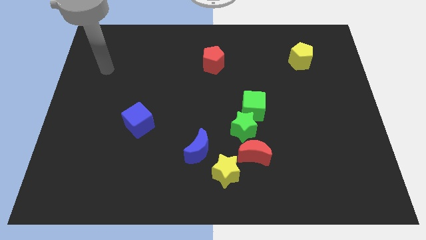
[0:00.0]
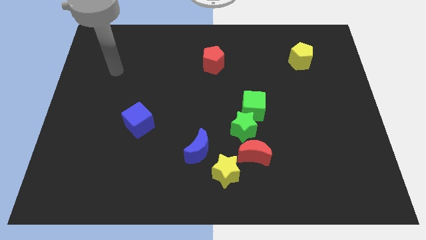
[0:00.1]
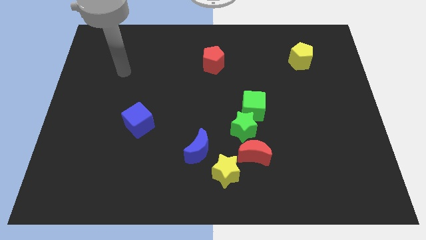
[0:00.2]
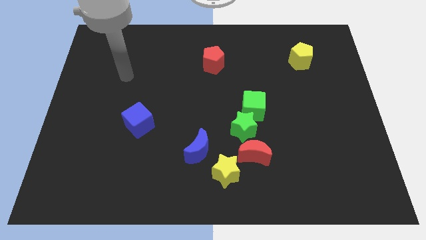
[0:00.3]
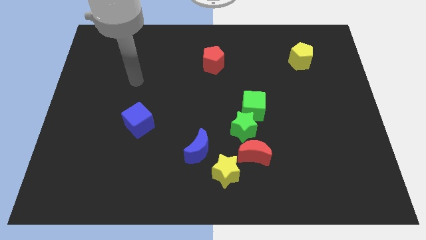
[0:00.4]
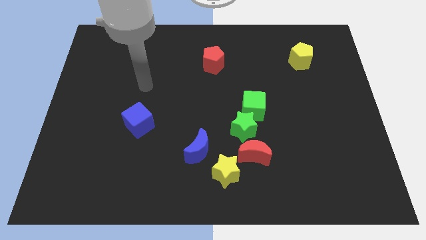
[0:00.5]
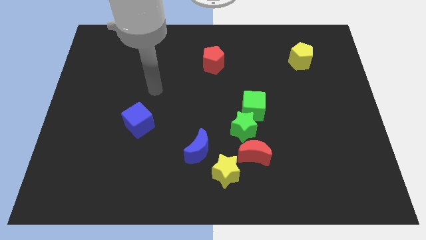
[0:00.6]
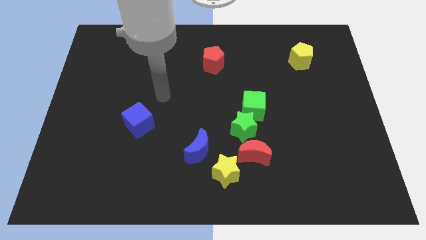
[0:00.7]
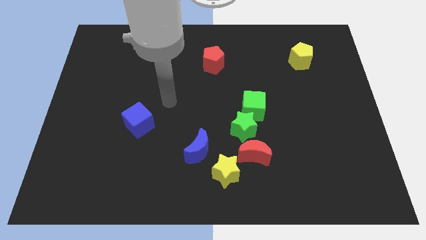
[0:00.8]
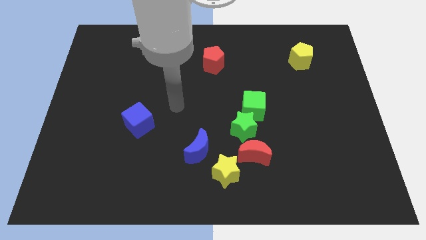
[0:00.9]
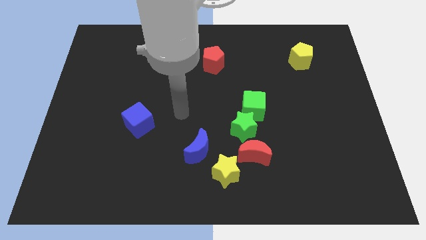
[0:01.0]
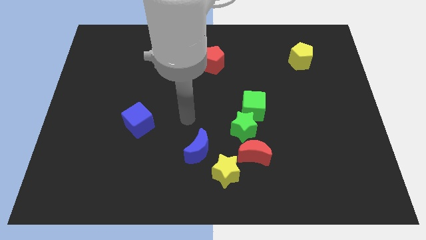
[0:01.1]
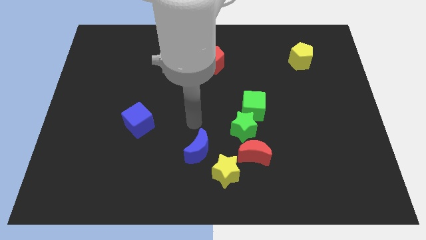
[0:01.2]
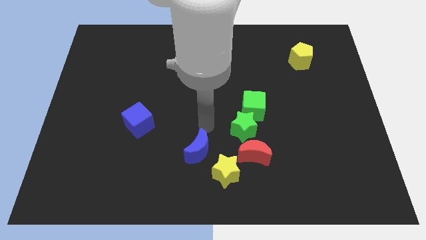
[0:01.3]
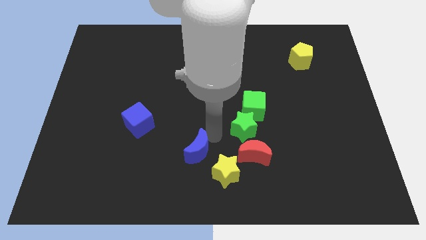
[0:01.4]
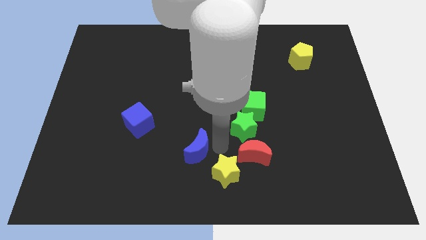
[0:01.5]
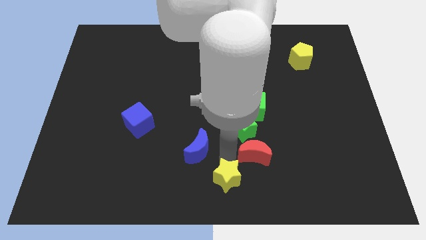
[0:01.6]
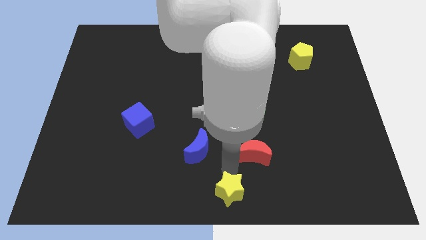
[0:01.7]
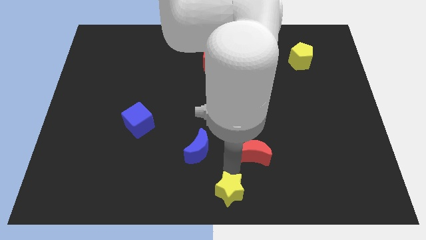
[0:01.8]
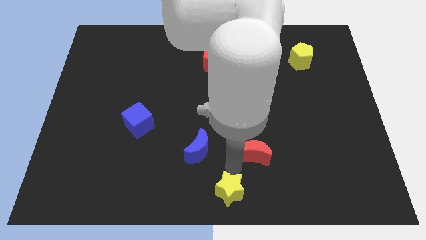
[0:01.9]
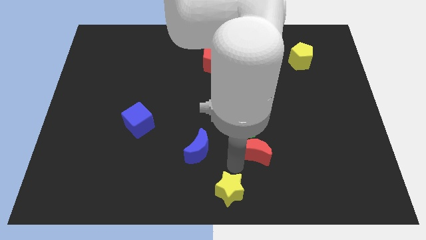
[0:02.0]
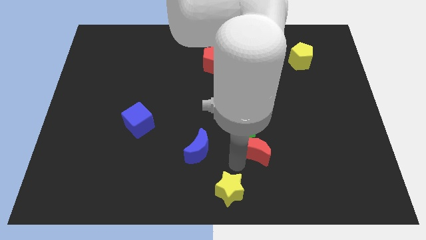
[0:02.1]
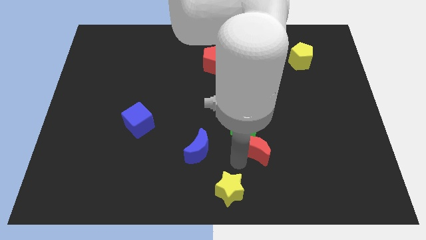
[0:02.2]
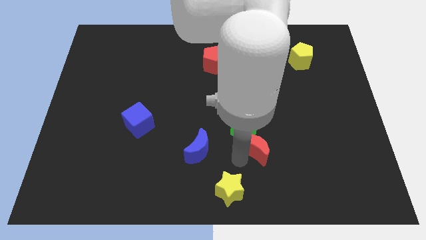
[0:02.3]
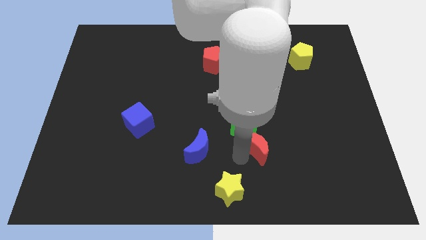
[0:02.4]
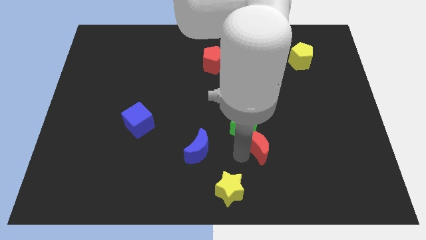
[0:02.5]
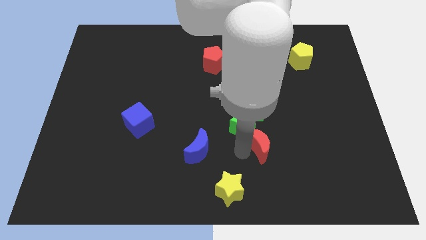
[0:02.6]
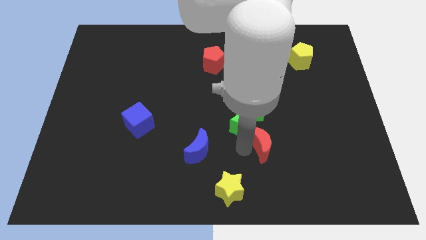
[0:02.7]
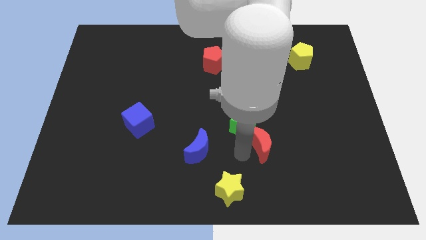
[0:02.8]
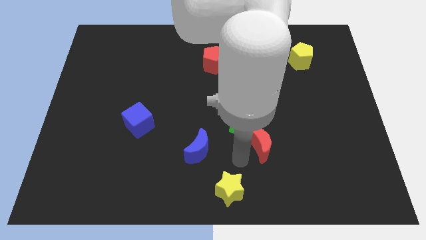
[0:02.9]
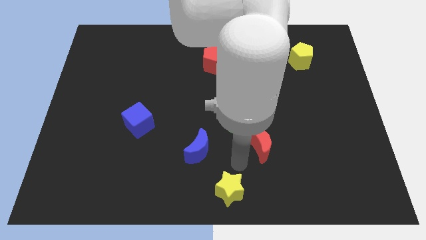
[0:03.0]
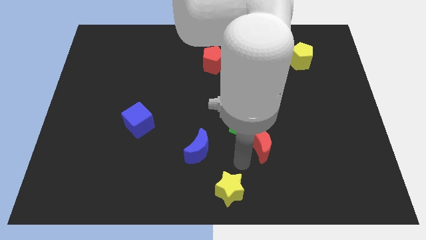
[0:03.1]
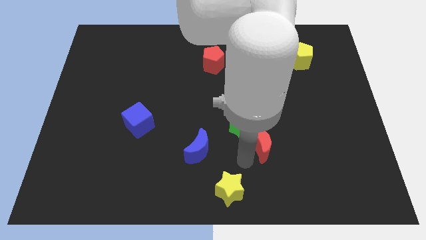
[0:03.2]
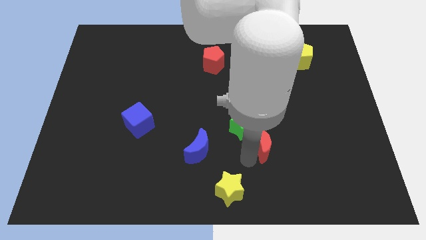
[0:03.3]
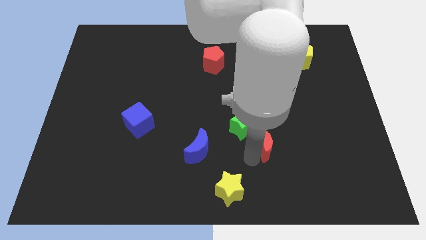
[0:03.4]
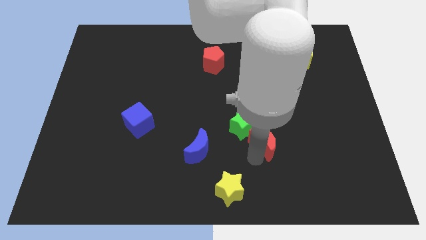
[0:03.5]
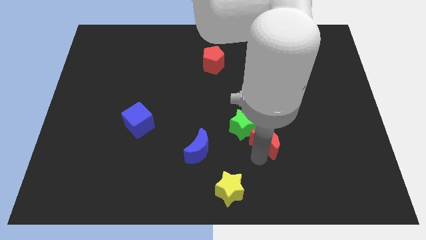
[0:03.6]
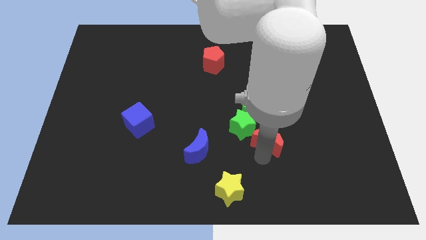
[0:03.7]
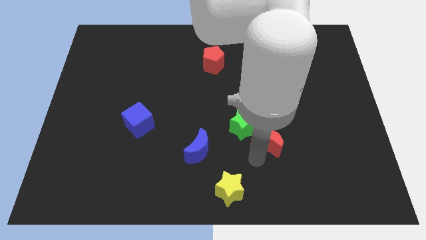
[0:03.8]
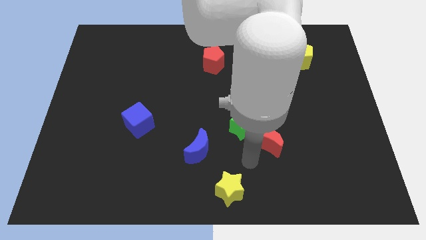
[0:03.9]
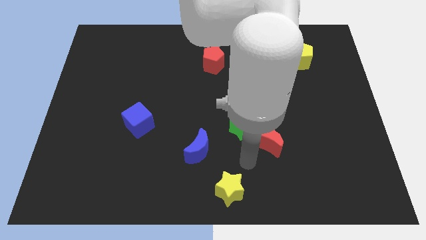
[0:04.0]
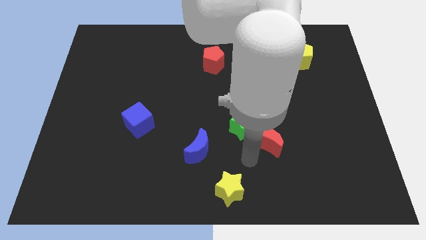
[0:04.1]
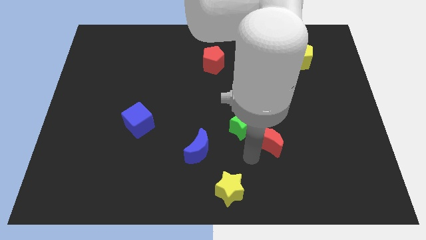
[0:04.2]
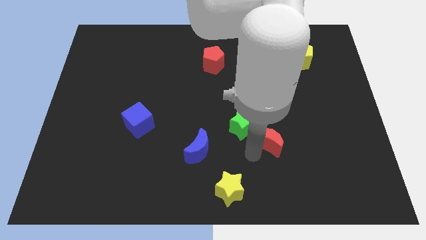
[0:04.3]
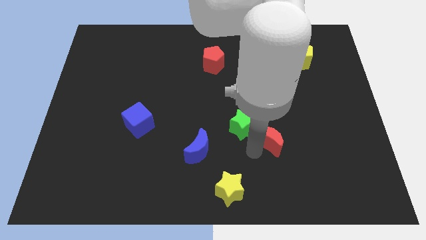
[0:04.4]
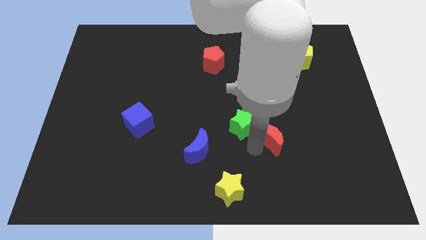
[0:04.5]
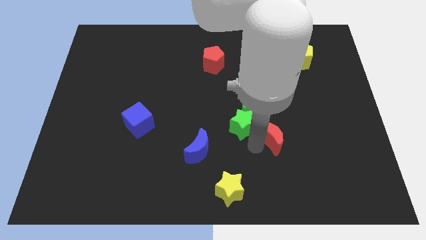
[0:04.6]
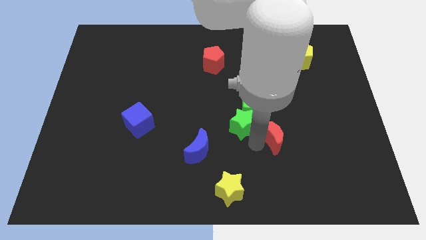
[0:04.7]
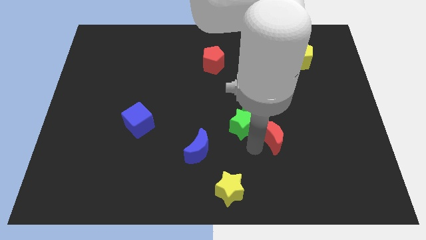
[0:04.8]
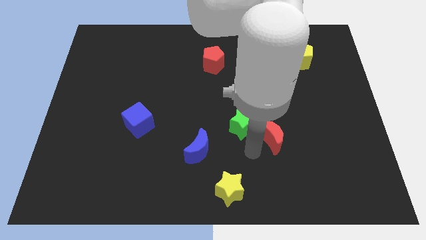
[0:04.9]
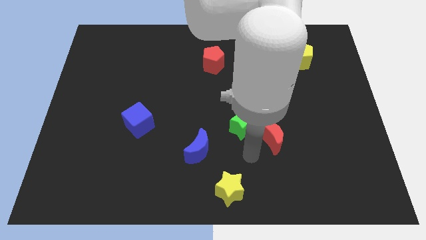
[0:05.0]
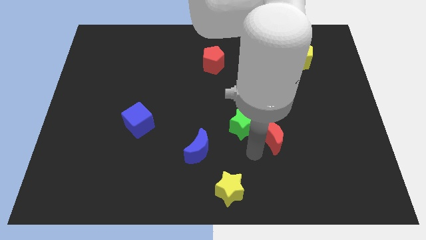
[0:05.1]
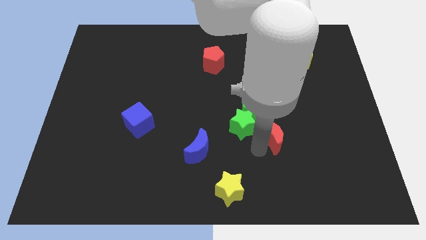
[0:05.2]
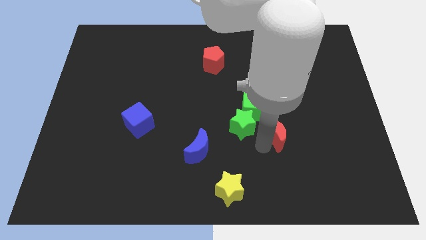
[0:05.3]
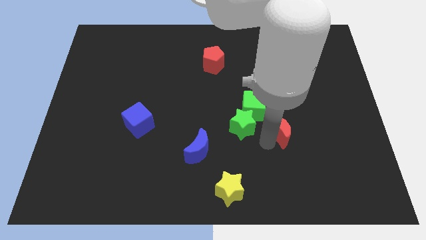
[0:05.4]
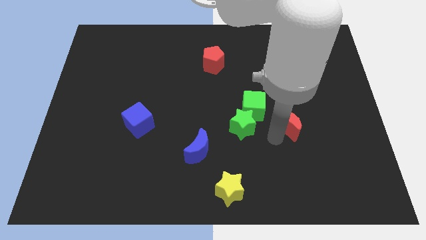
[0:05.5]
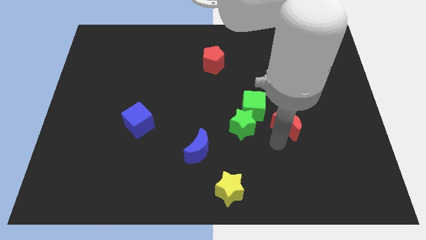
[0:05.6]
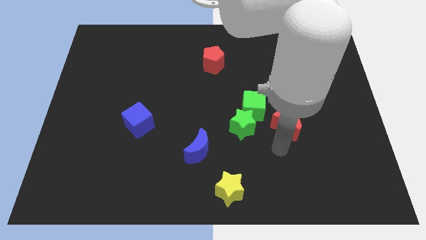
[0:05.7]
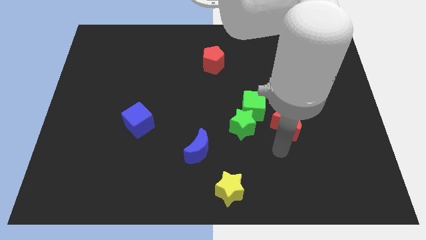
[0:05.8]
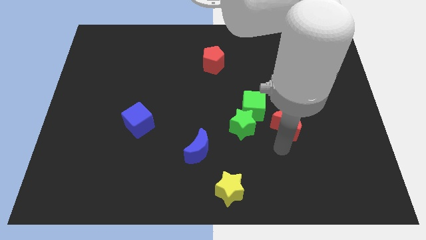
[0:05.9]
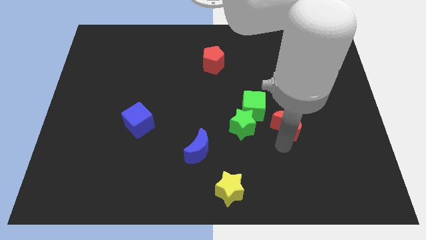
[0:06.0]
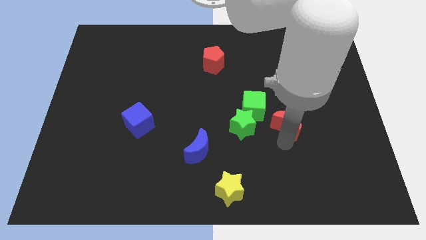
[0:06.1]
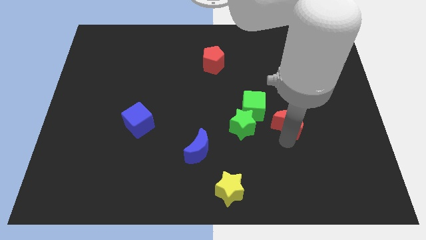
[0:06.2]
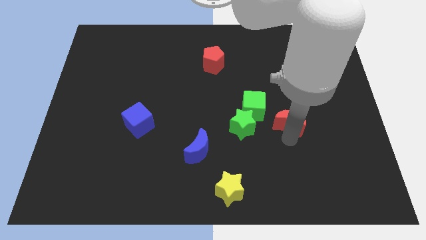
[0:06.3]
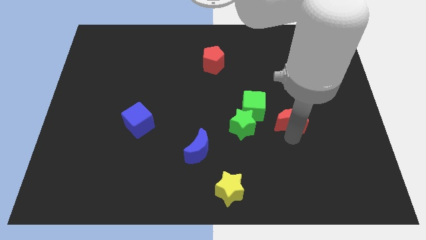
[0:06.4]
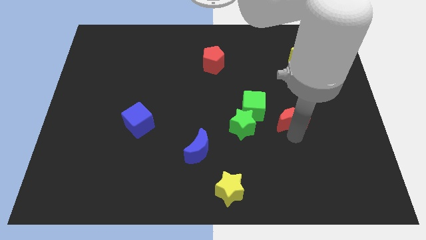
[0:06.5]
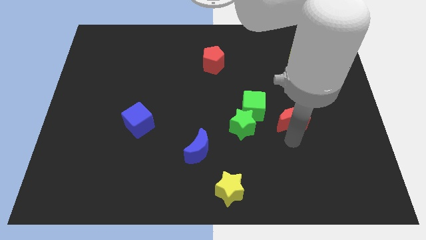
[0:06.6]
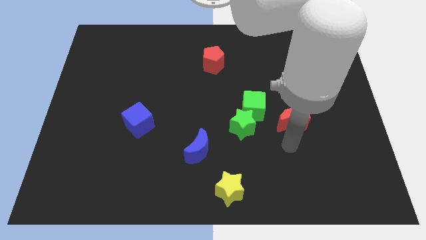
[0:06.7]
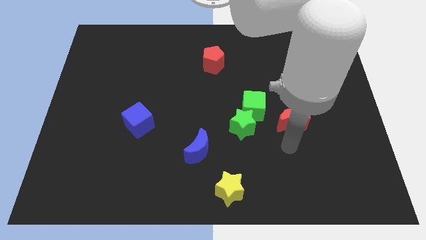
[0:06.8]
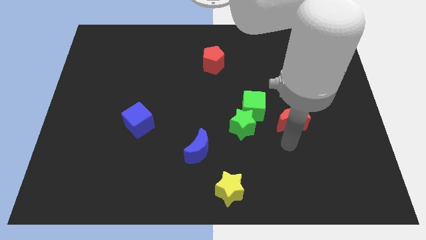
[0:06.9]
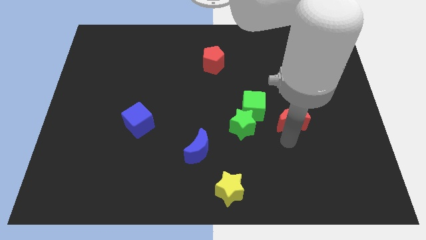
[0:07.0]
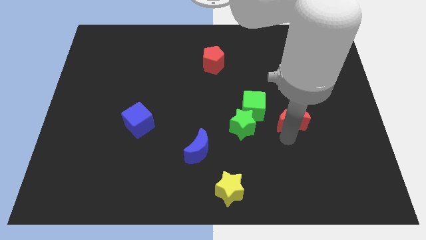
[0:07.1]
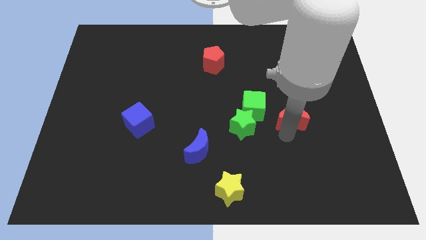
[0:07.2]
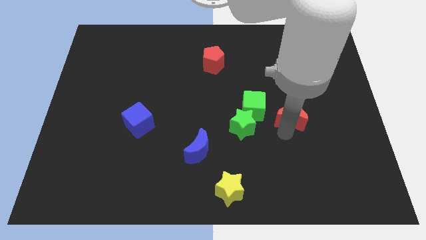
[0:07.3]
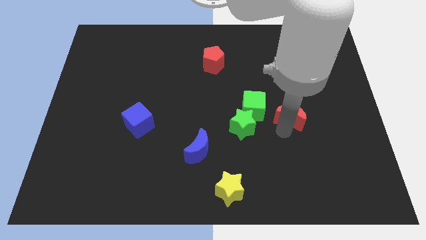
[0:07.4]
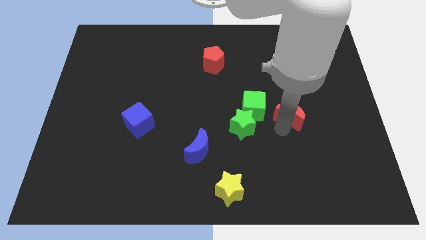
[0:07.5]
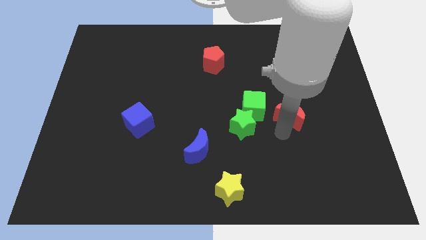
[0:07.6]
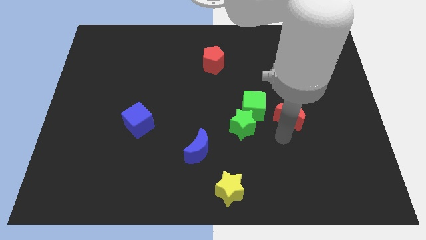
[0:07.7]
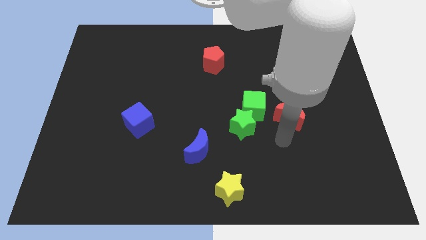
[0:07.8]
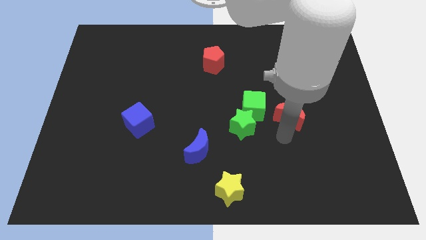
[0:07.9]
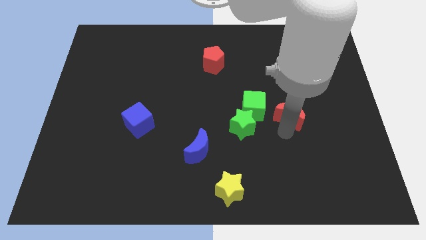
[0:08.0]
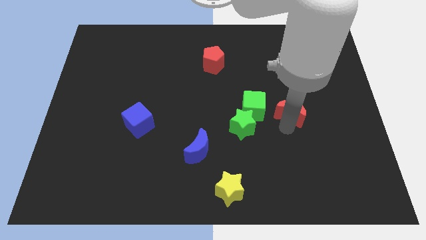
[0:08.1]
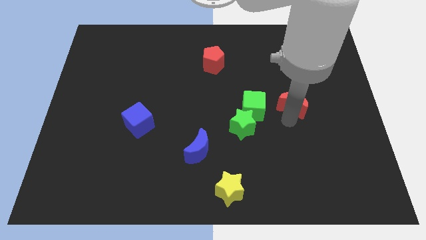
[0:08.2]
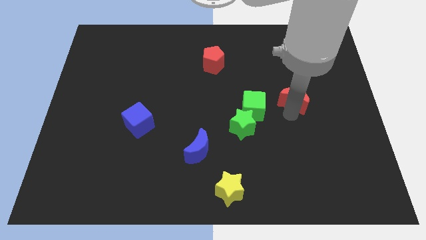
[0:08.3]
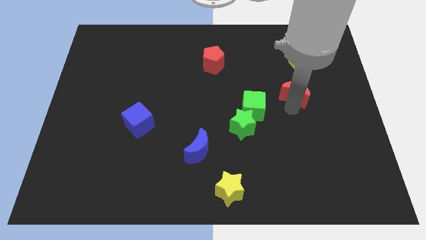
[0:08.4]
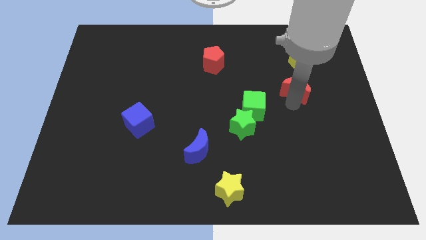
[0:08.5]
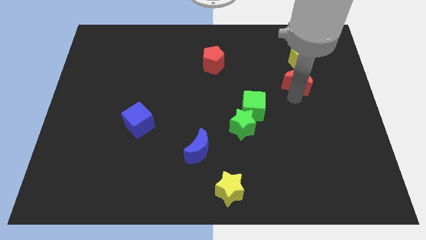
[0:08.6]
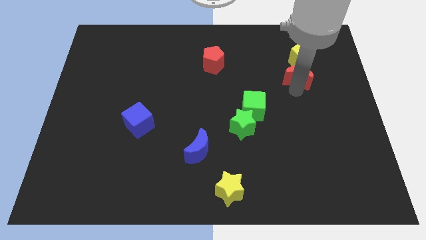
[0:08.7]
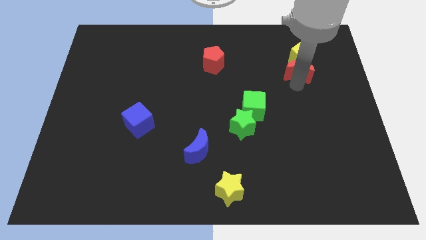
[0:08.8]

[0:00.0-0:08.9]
put the red moon next to the yellow pentagon
